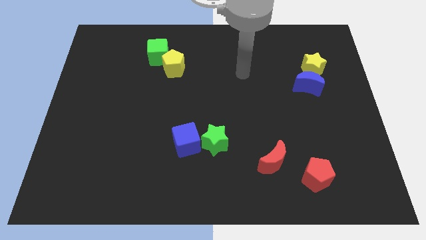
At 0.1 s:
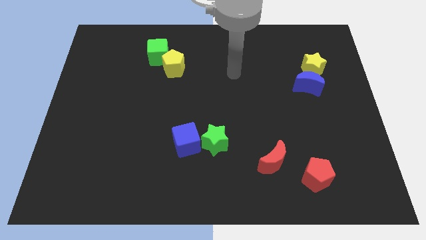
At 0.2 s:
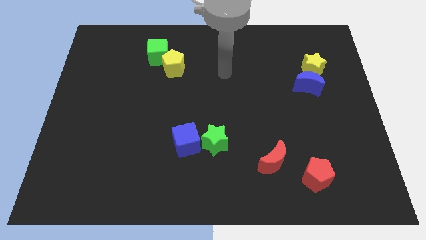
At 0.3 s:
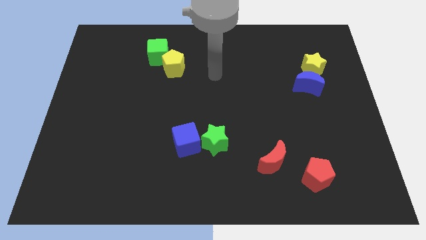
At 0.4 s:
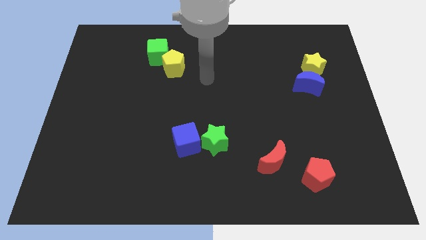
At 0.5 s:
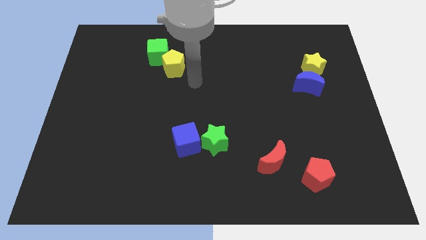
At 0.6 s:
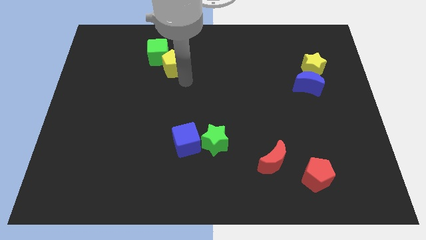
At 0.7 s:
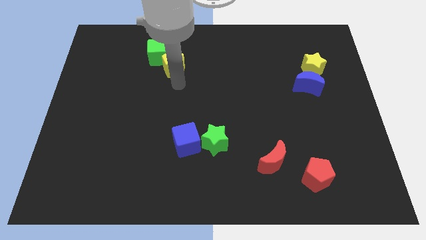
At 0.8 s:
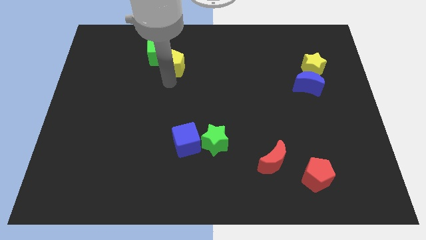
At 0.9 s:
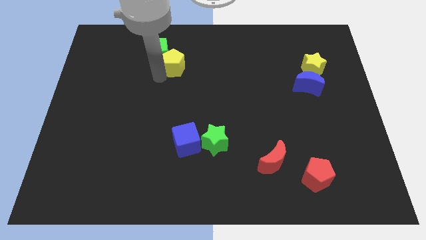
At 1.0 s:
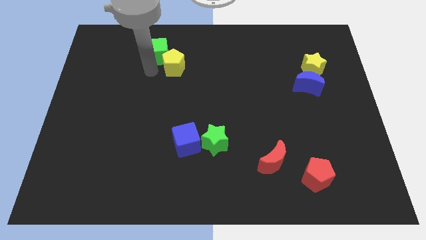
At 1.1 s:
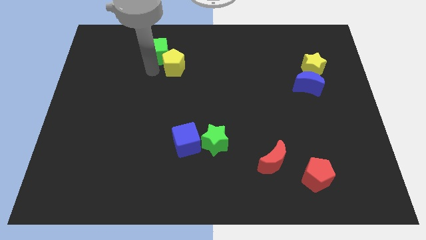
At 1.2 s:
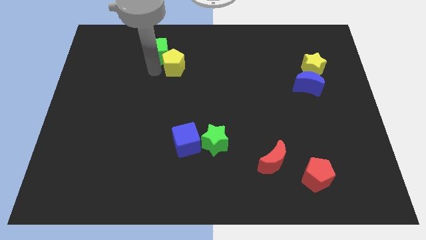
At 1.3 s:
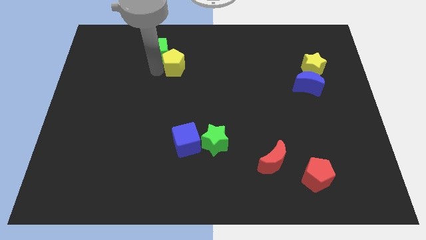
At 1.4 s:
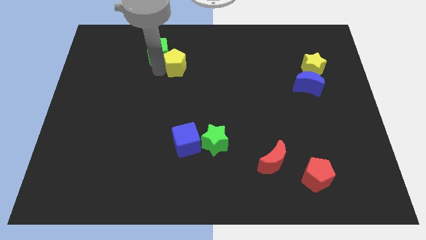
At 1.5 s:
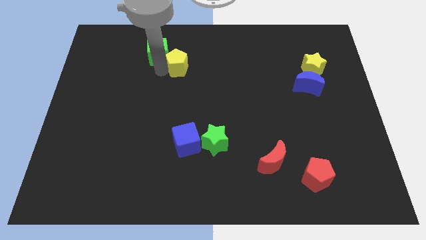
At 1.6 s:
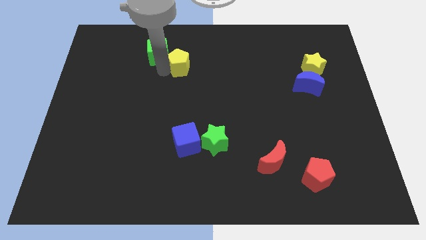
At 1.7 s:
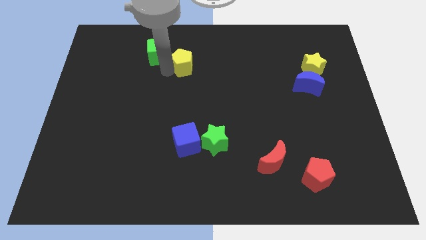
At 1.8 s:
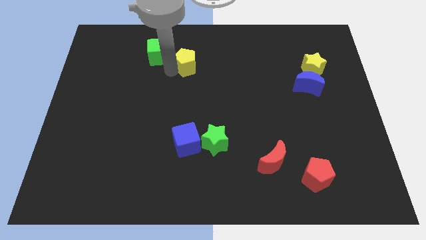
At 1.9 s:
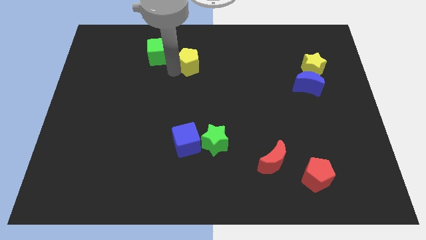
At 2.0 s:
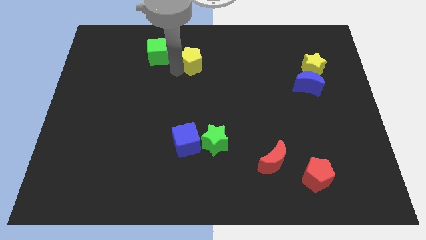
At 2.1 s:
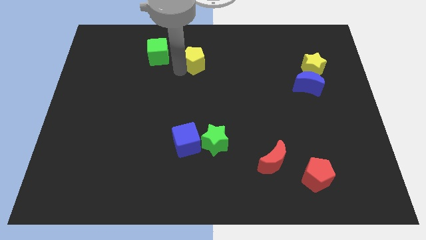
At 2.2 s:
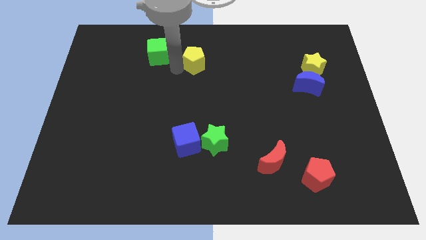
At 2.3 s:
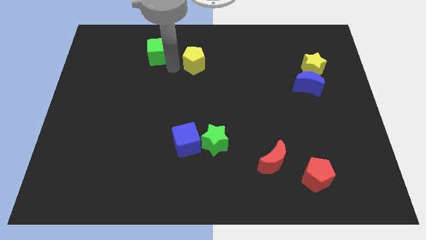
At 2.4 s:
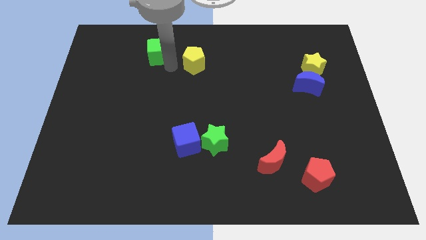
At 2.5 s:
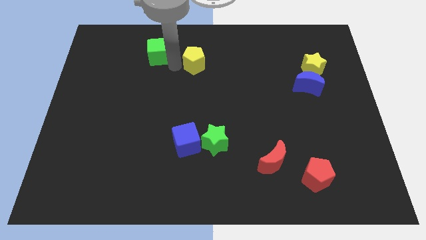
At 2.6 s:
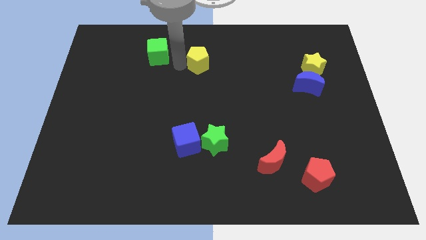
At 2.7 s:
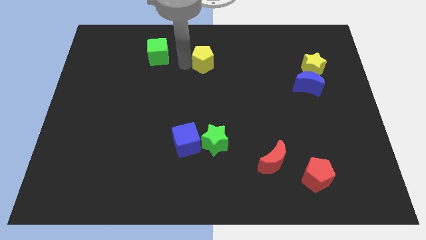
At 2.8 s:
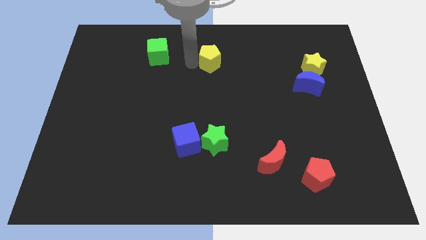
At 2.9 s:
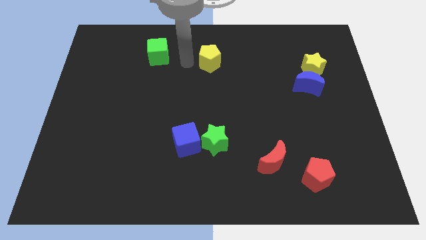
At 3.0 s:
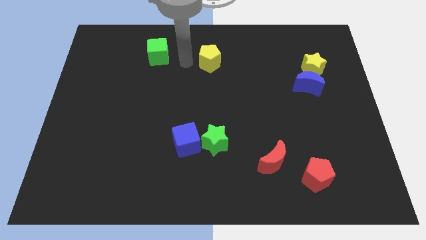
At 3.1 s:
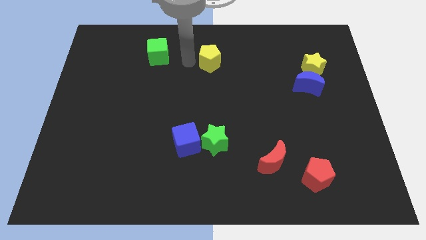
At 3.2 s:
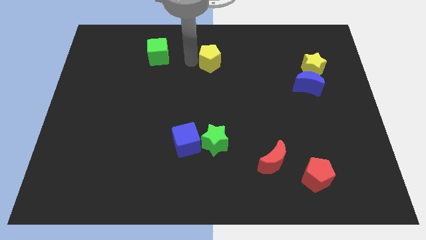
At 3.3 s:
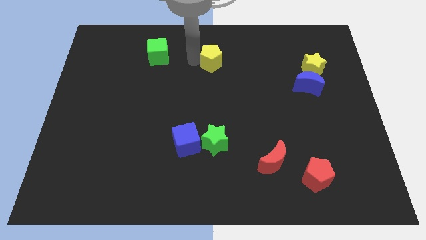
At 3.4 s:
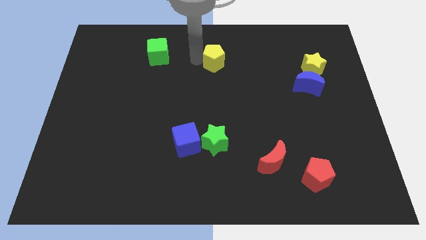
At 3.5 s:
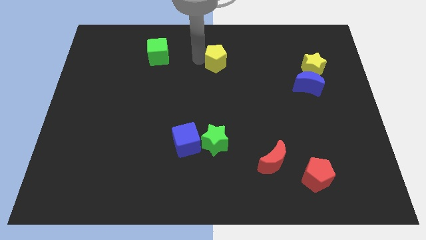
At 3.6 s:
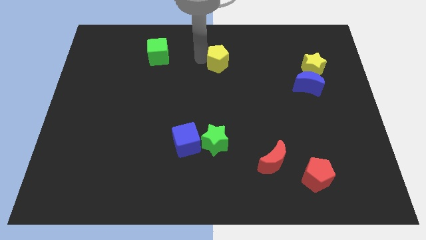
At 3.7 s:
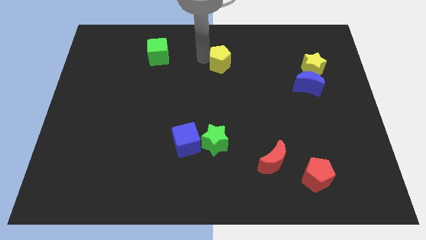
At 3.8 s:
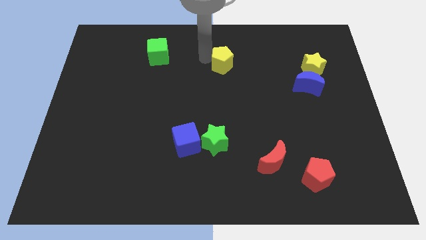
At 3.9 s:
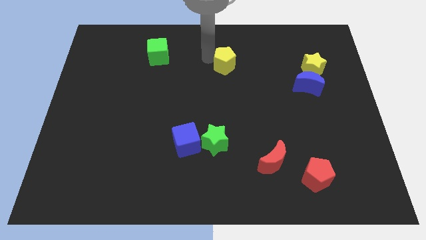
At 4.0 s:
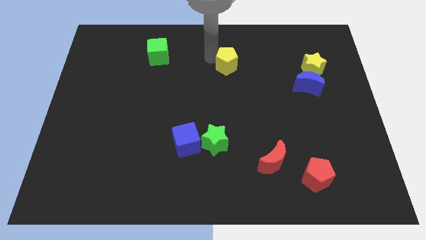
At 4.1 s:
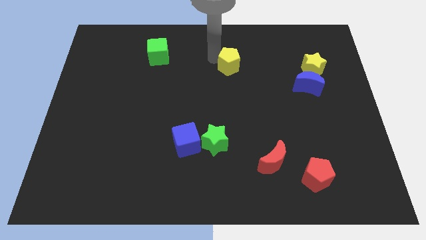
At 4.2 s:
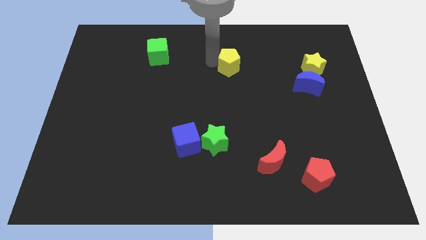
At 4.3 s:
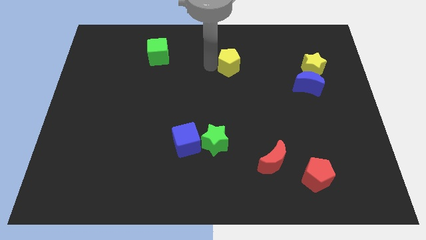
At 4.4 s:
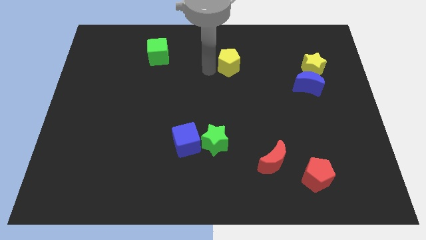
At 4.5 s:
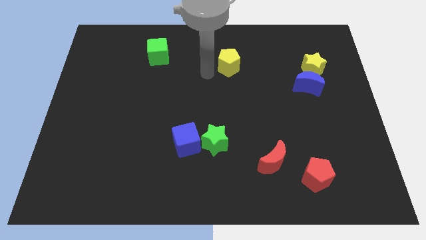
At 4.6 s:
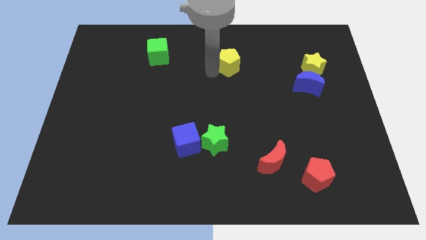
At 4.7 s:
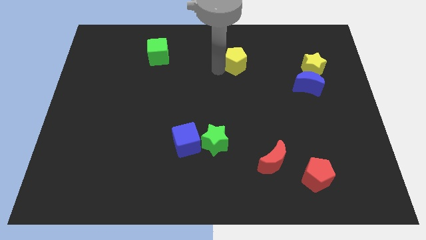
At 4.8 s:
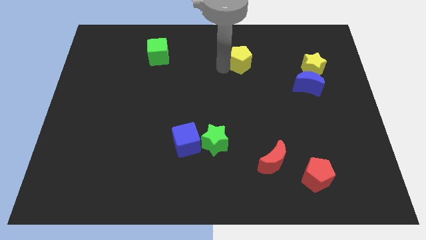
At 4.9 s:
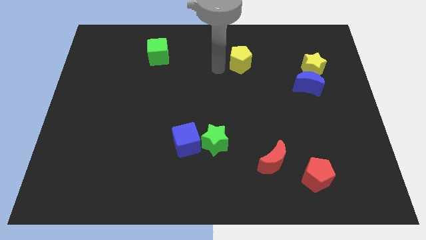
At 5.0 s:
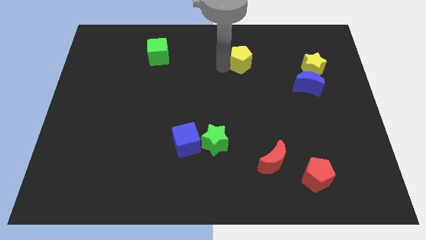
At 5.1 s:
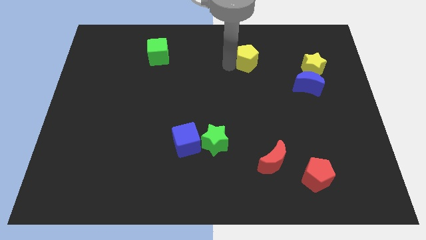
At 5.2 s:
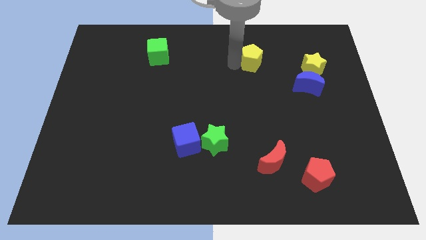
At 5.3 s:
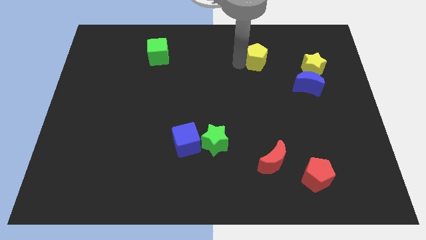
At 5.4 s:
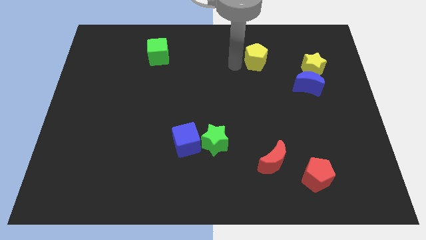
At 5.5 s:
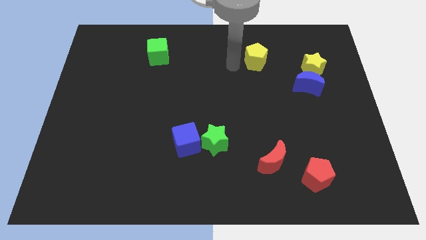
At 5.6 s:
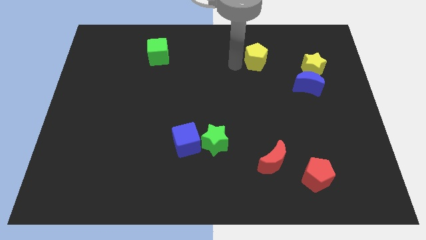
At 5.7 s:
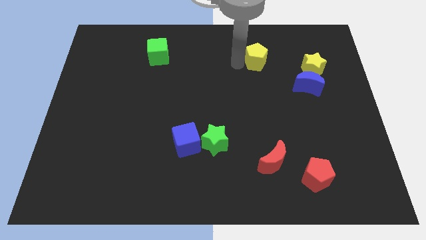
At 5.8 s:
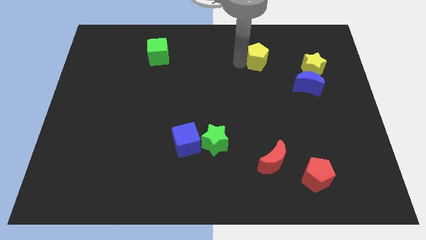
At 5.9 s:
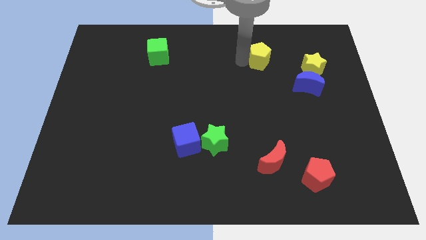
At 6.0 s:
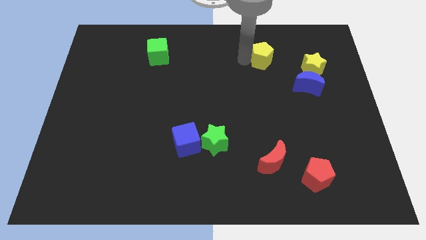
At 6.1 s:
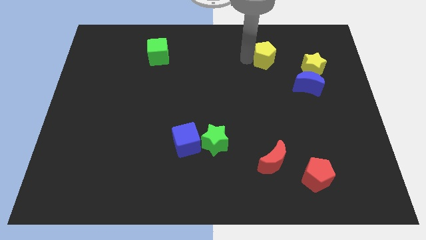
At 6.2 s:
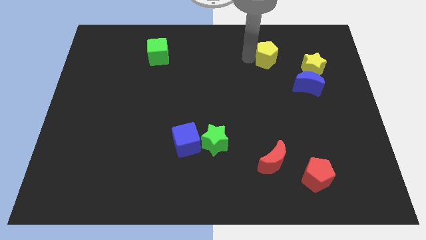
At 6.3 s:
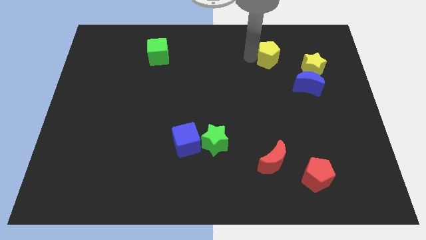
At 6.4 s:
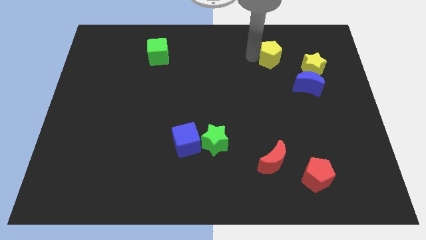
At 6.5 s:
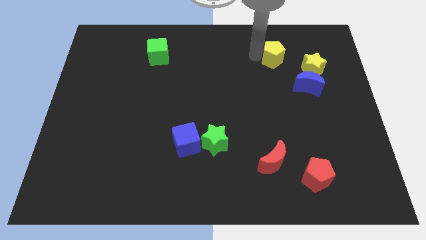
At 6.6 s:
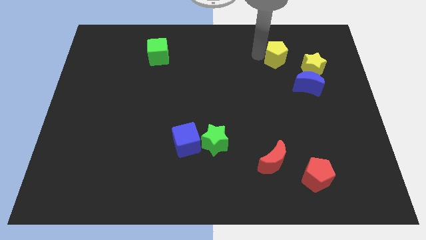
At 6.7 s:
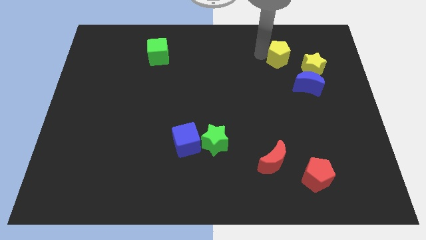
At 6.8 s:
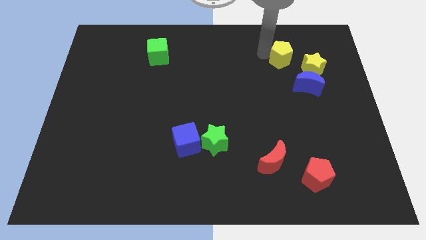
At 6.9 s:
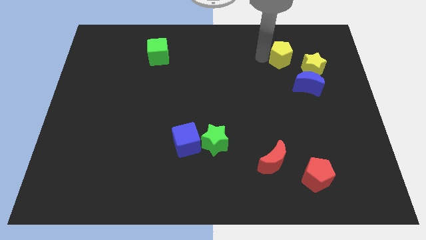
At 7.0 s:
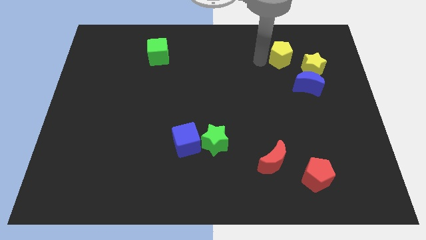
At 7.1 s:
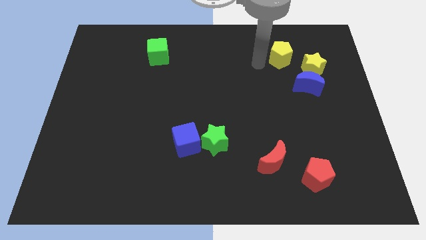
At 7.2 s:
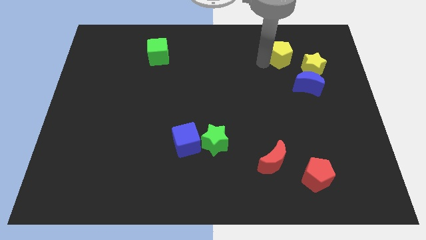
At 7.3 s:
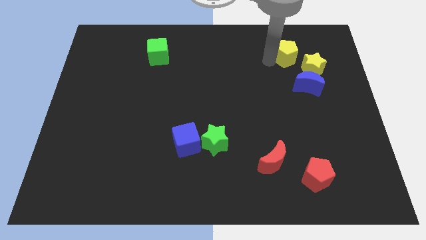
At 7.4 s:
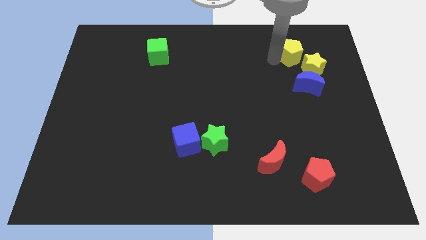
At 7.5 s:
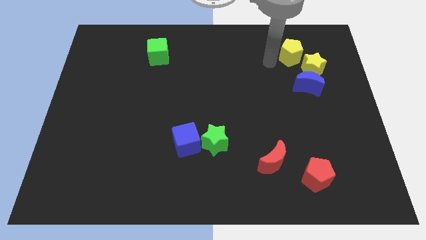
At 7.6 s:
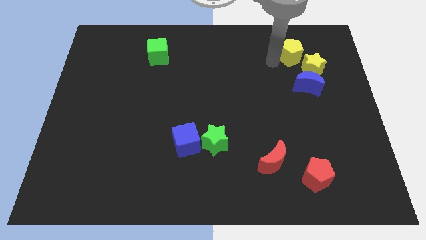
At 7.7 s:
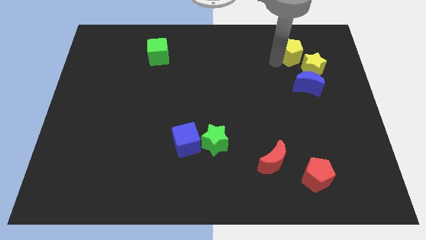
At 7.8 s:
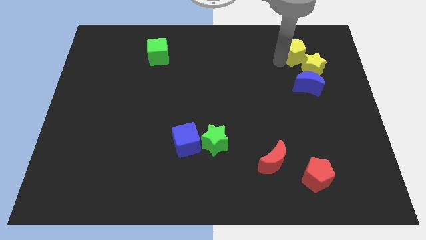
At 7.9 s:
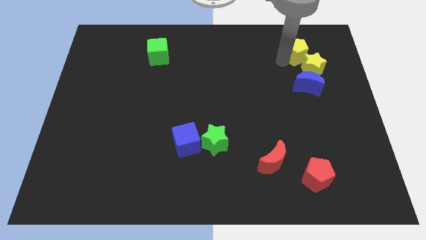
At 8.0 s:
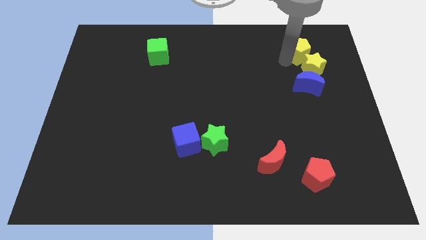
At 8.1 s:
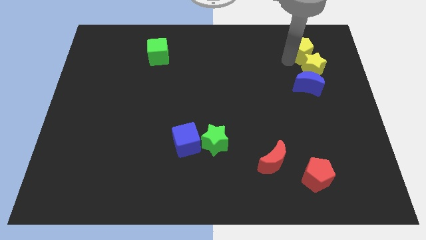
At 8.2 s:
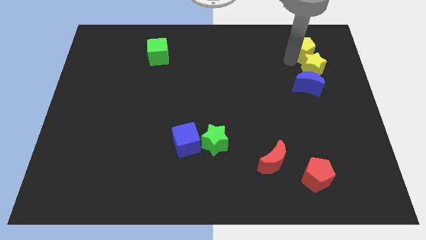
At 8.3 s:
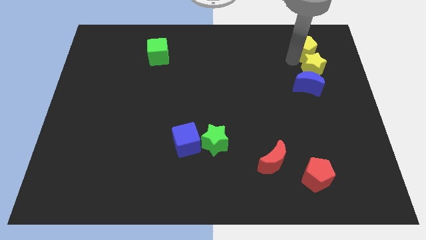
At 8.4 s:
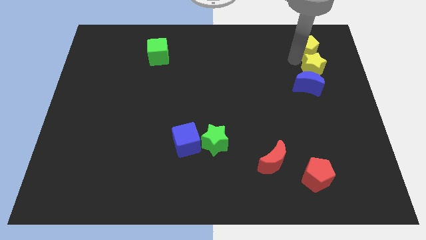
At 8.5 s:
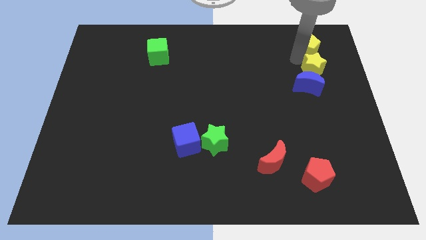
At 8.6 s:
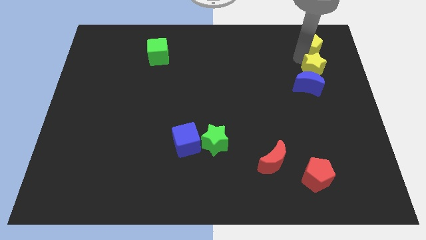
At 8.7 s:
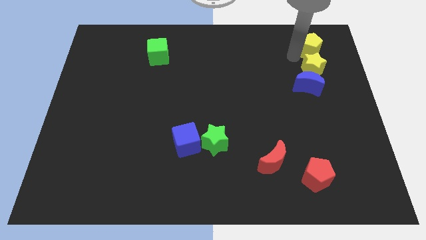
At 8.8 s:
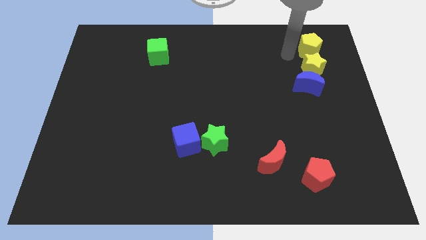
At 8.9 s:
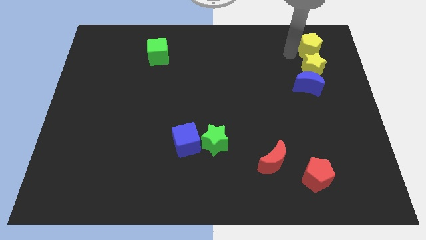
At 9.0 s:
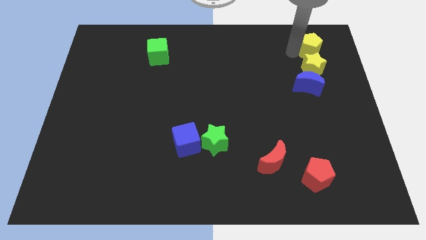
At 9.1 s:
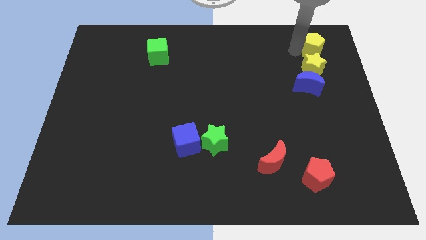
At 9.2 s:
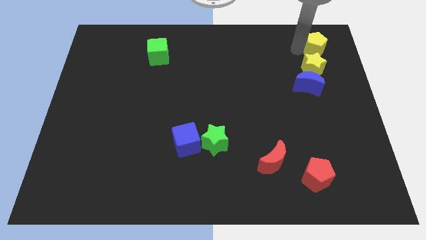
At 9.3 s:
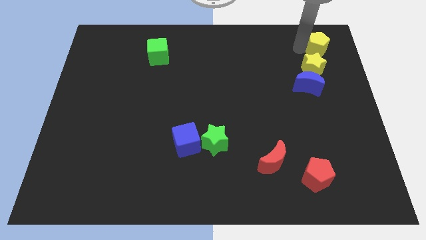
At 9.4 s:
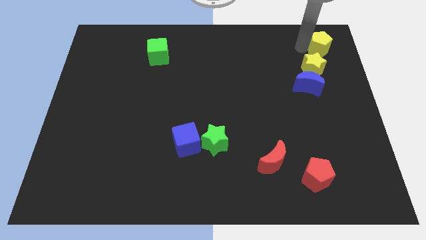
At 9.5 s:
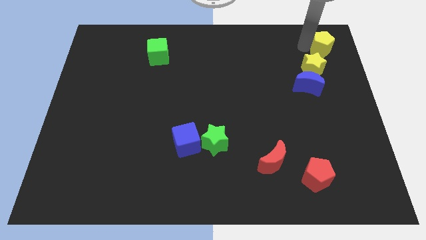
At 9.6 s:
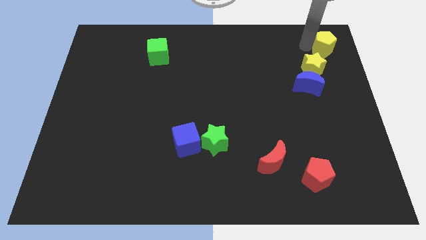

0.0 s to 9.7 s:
move the yellow pentagon to the top right of the board
